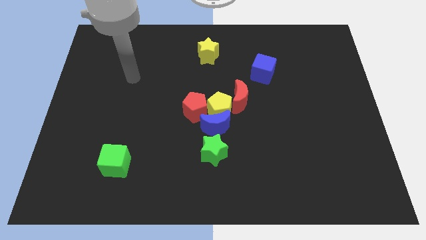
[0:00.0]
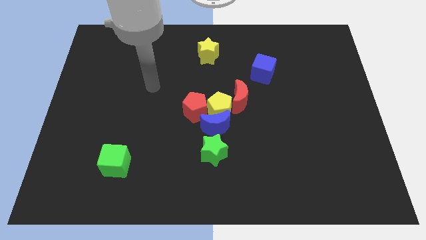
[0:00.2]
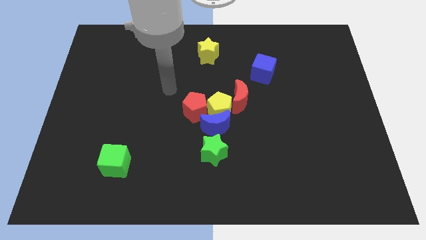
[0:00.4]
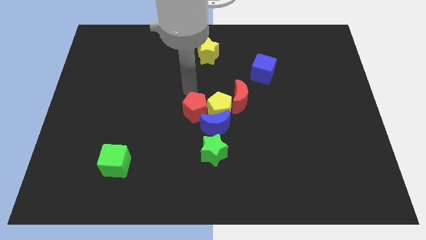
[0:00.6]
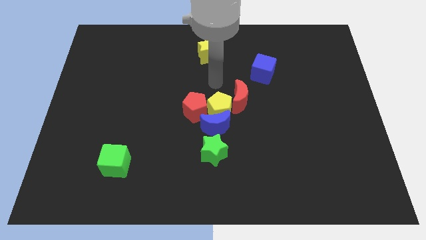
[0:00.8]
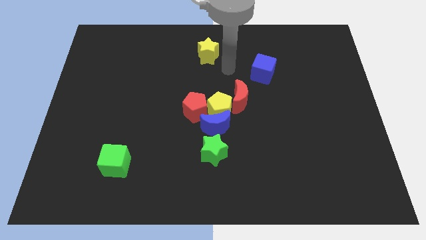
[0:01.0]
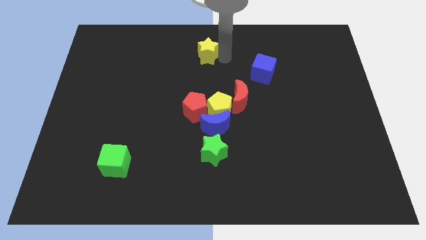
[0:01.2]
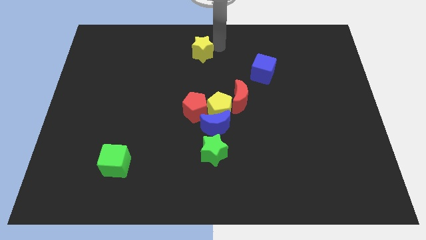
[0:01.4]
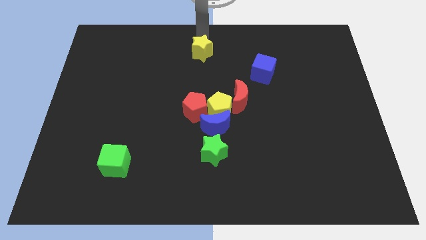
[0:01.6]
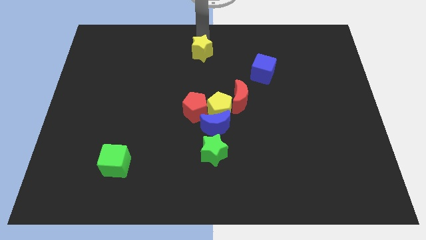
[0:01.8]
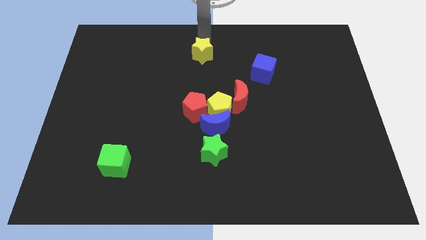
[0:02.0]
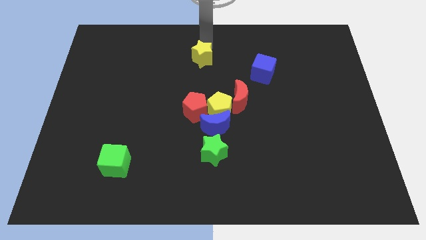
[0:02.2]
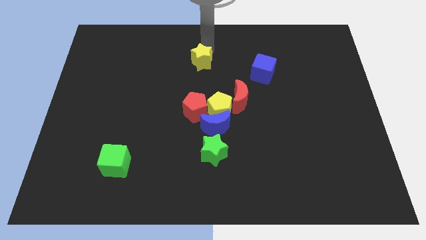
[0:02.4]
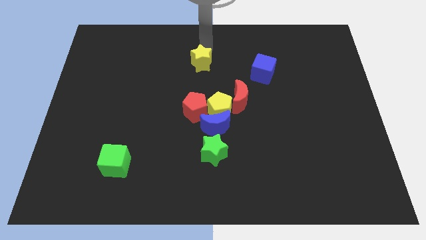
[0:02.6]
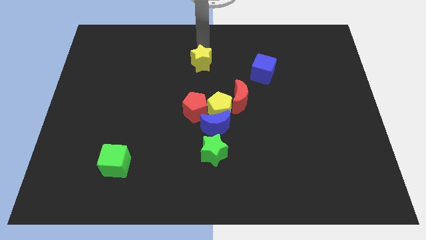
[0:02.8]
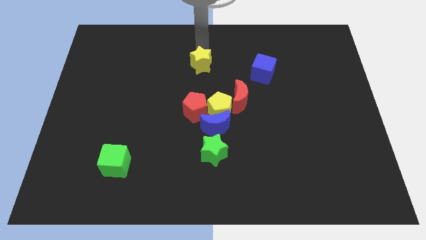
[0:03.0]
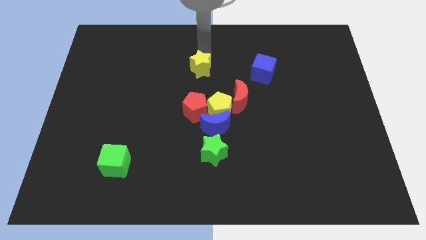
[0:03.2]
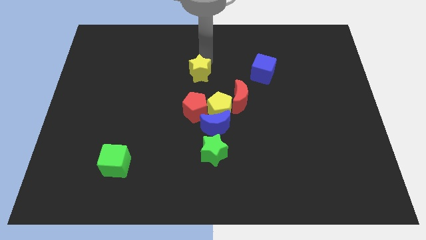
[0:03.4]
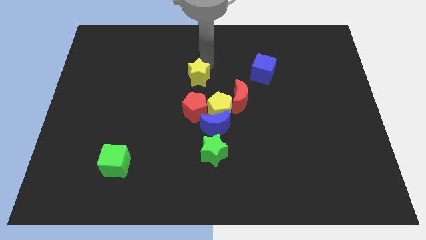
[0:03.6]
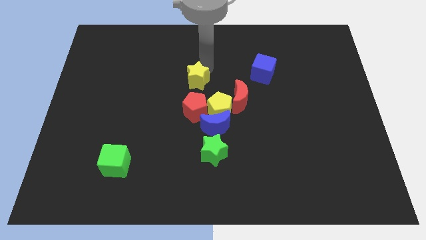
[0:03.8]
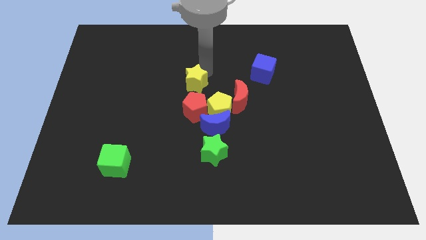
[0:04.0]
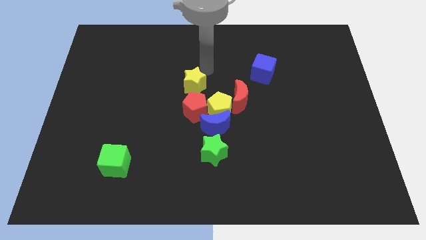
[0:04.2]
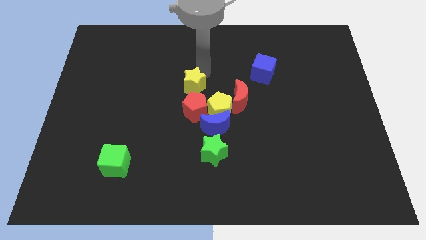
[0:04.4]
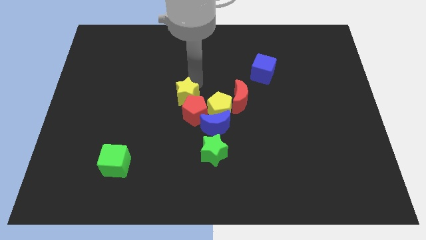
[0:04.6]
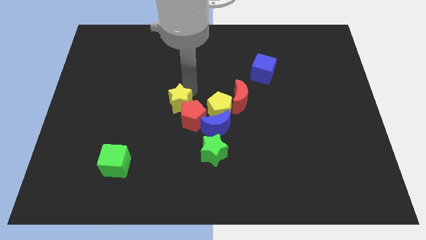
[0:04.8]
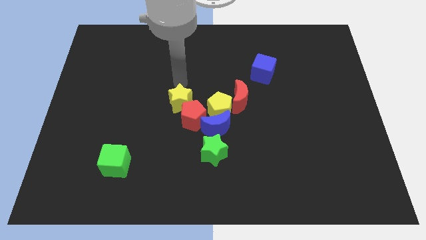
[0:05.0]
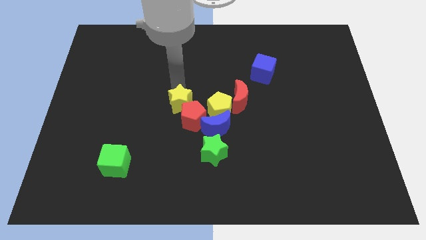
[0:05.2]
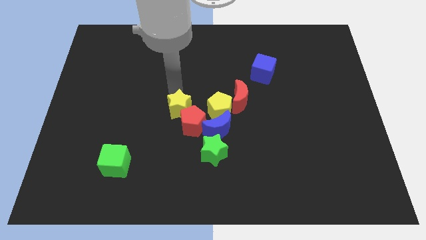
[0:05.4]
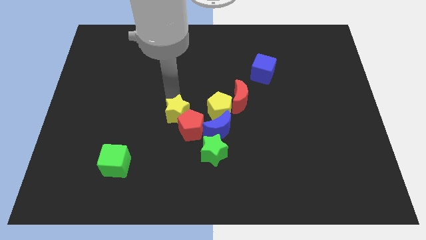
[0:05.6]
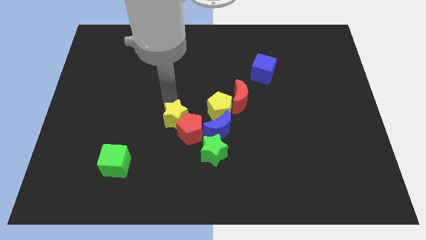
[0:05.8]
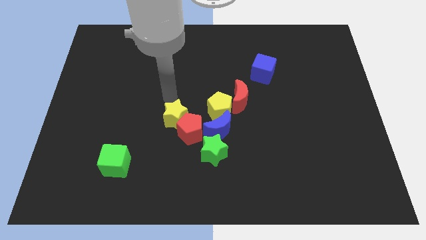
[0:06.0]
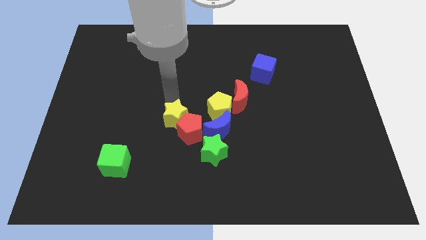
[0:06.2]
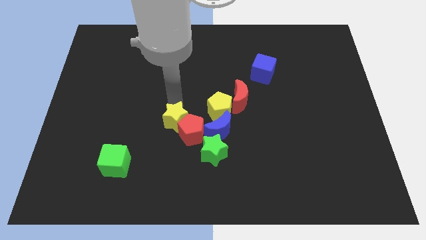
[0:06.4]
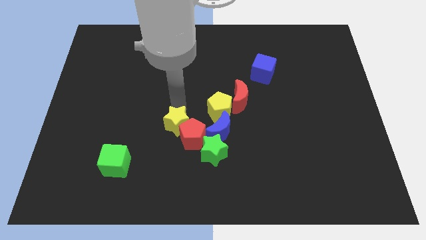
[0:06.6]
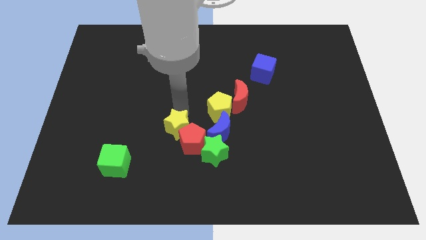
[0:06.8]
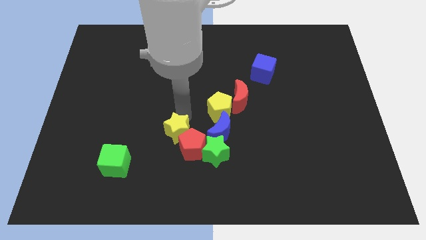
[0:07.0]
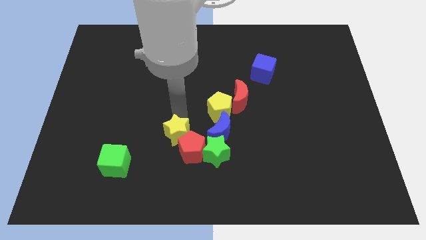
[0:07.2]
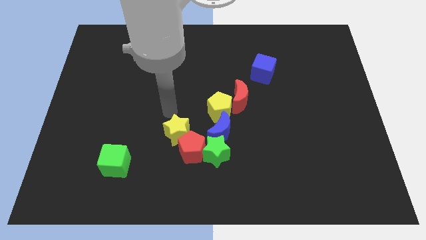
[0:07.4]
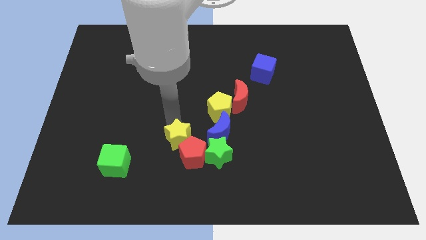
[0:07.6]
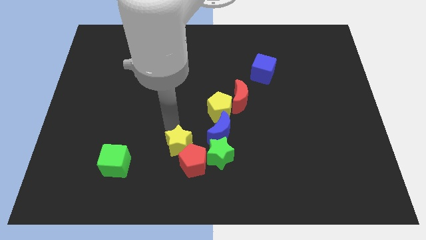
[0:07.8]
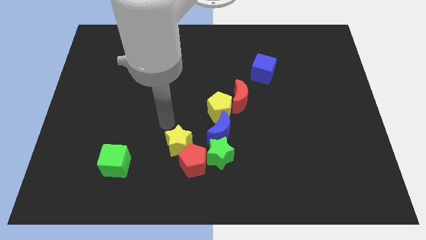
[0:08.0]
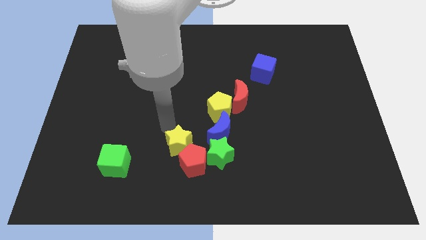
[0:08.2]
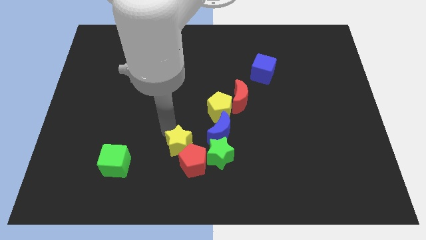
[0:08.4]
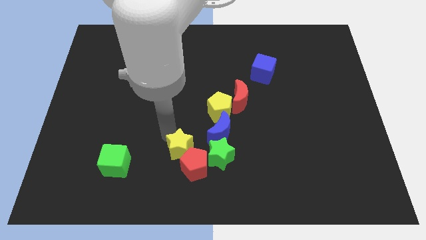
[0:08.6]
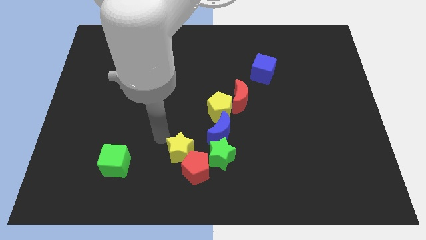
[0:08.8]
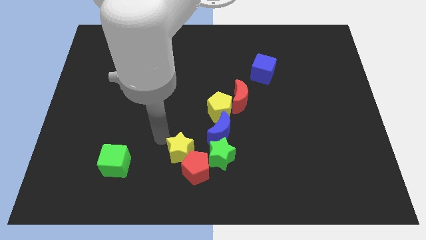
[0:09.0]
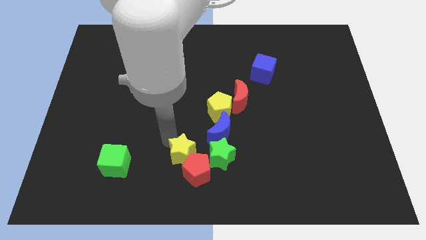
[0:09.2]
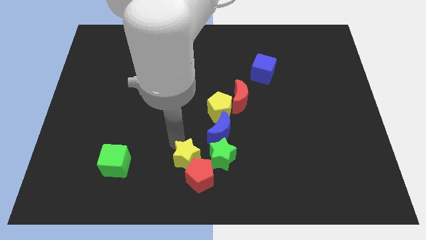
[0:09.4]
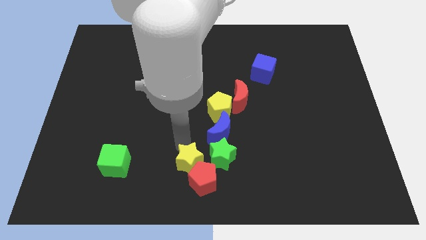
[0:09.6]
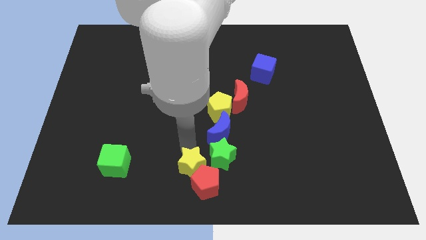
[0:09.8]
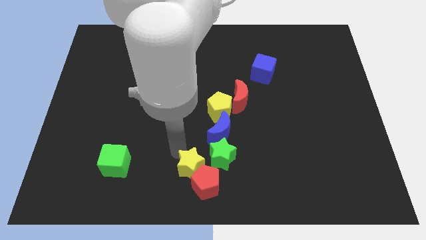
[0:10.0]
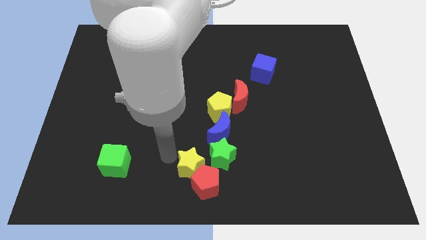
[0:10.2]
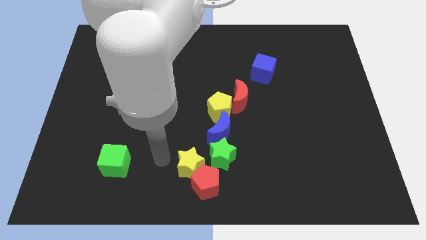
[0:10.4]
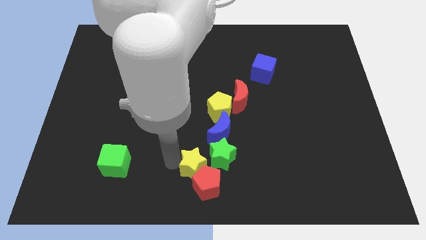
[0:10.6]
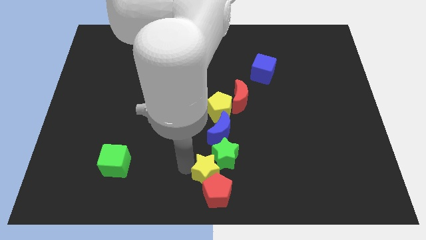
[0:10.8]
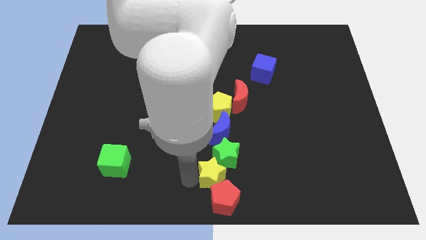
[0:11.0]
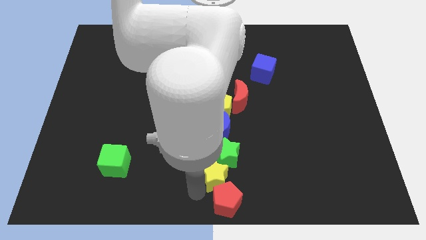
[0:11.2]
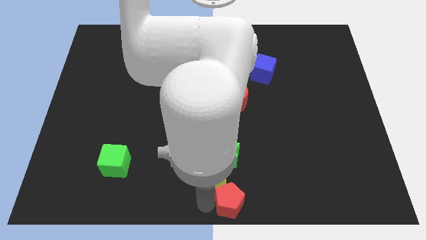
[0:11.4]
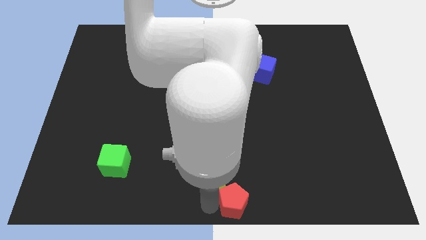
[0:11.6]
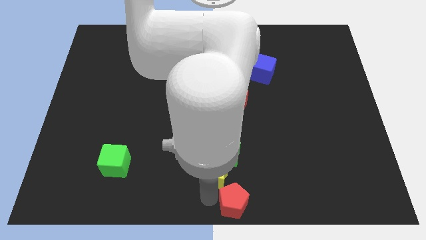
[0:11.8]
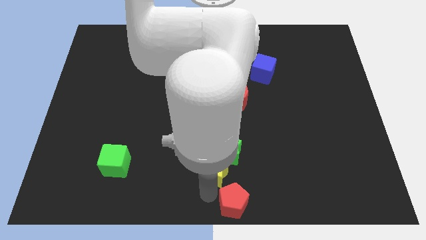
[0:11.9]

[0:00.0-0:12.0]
slide the yellow star to the bottom of the yellow pentagon
